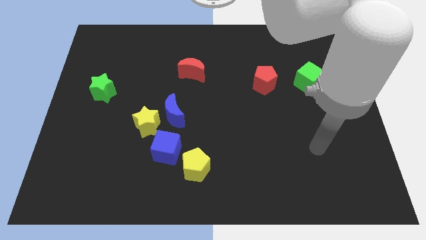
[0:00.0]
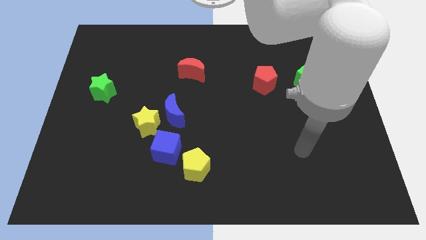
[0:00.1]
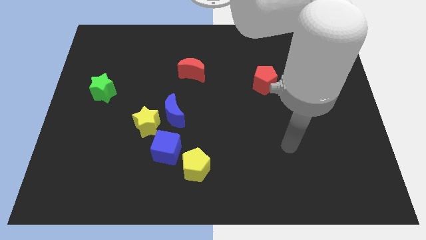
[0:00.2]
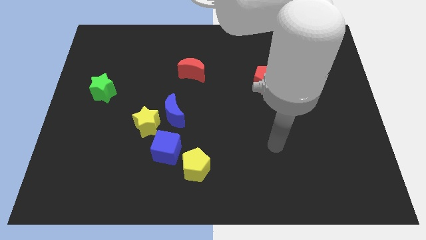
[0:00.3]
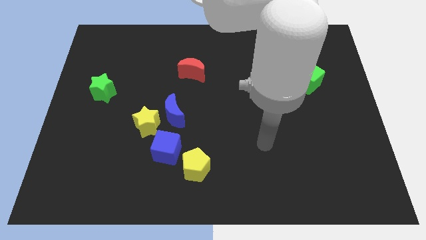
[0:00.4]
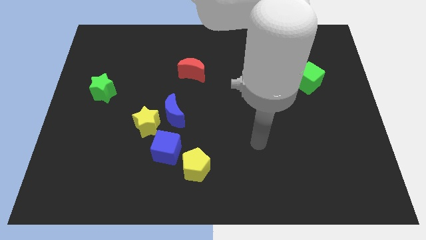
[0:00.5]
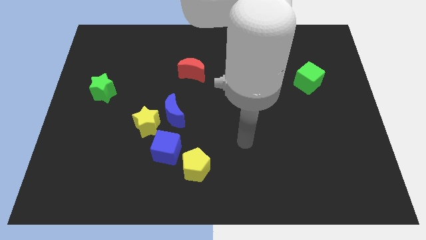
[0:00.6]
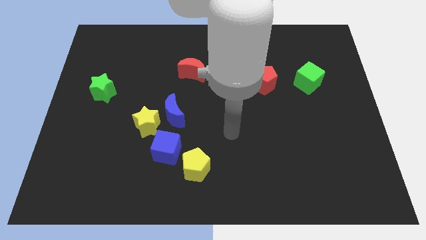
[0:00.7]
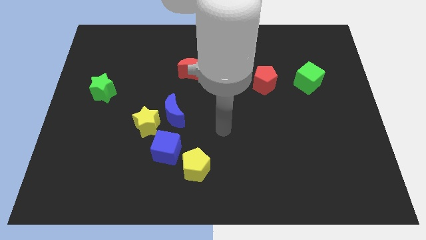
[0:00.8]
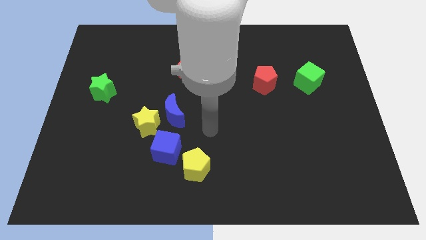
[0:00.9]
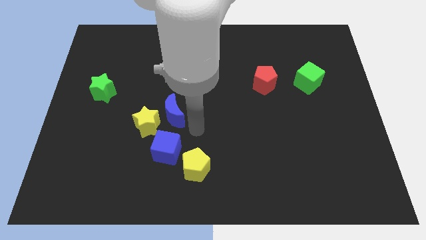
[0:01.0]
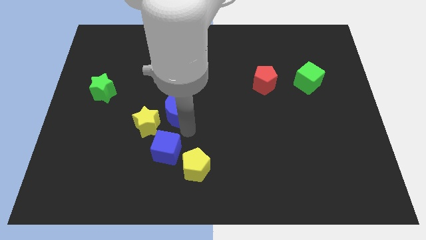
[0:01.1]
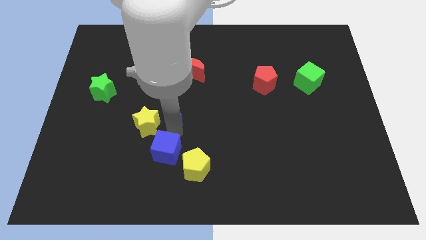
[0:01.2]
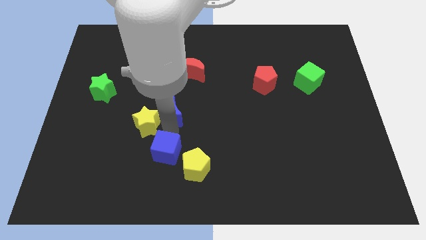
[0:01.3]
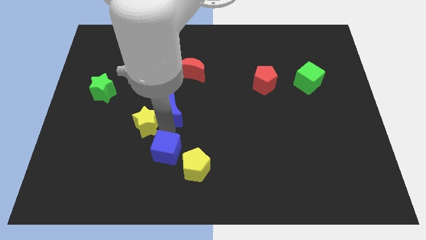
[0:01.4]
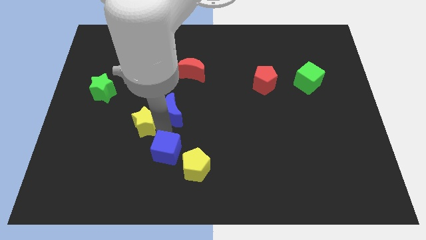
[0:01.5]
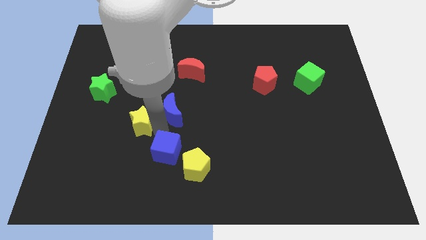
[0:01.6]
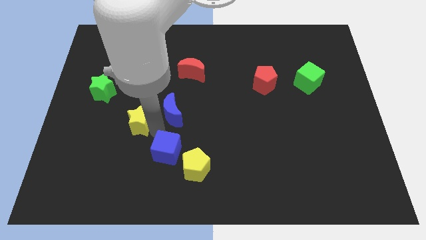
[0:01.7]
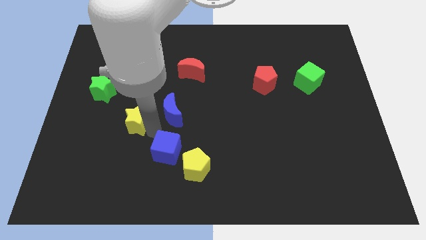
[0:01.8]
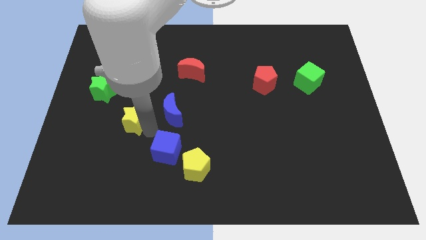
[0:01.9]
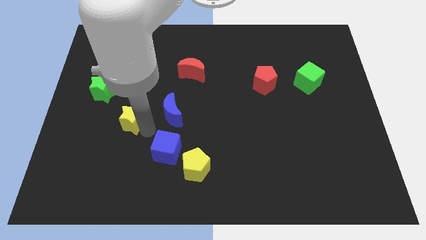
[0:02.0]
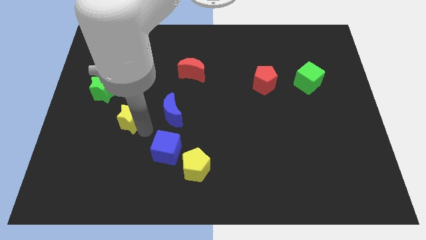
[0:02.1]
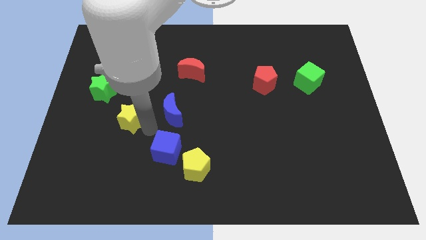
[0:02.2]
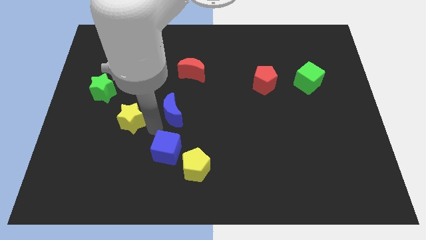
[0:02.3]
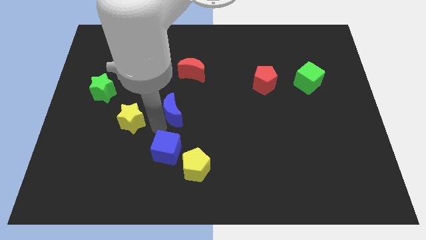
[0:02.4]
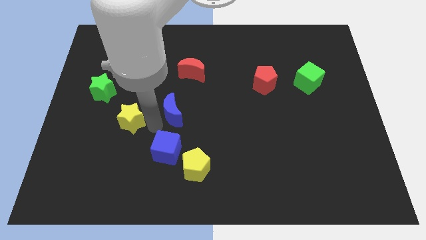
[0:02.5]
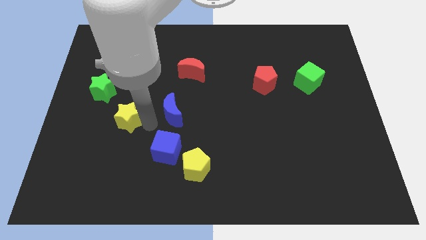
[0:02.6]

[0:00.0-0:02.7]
move the yellow star away from the blue moon and blue cube

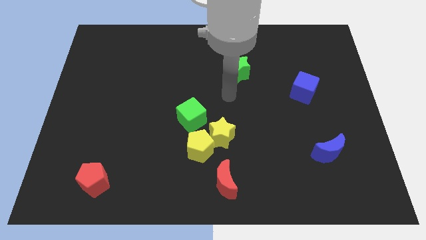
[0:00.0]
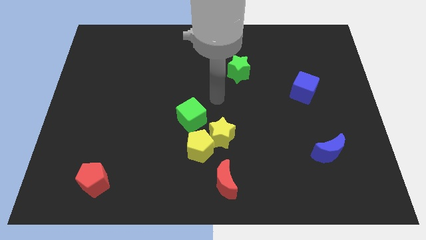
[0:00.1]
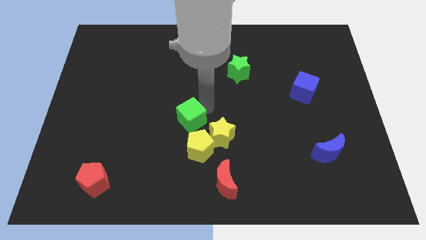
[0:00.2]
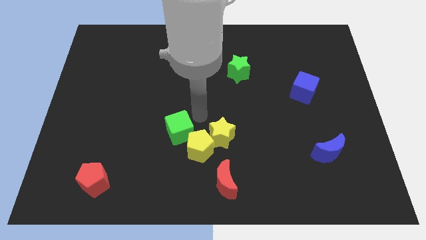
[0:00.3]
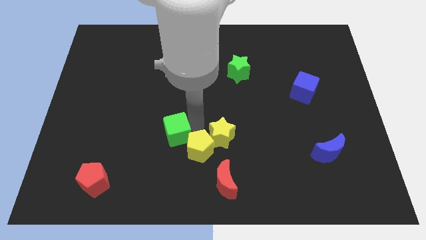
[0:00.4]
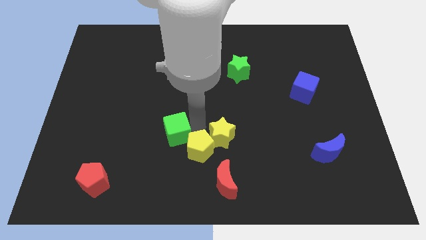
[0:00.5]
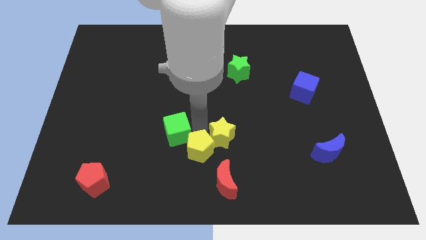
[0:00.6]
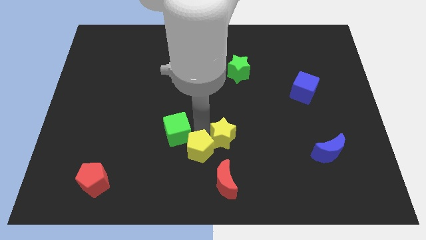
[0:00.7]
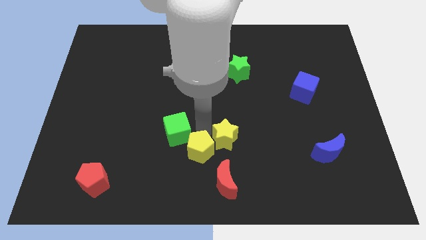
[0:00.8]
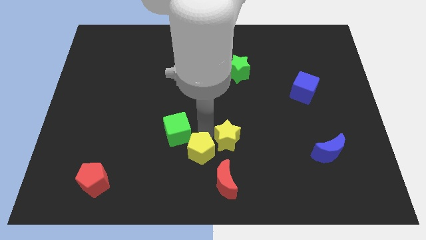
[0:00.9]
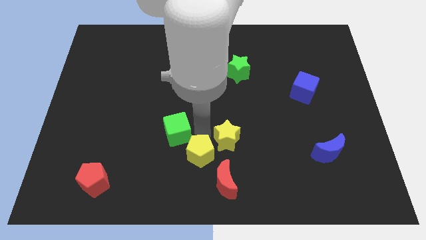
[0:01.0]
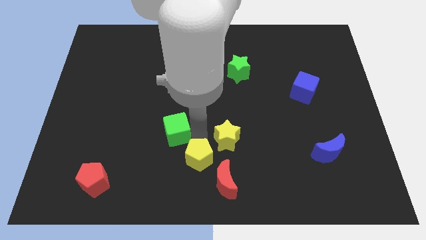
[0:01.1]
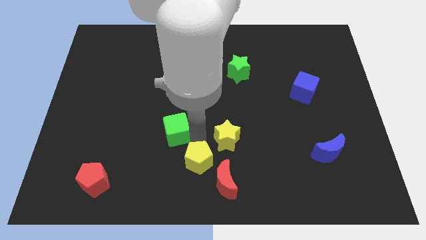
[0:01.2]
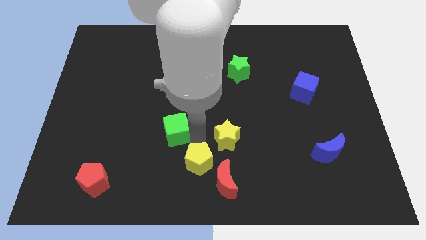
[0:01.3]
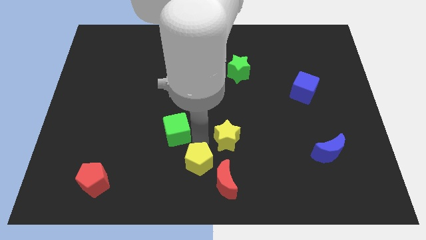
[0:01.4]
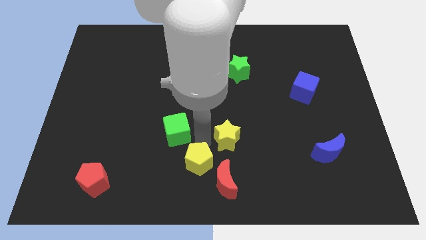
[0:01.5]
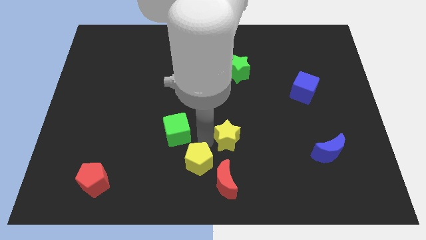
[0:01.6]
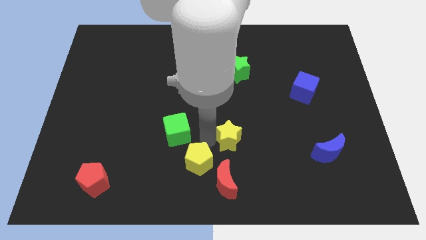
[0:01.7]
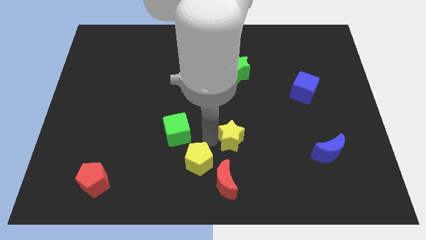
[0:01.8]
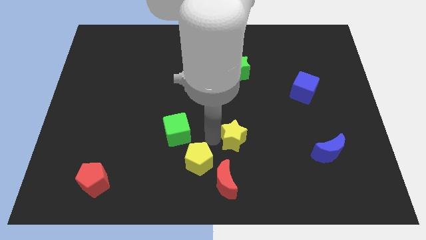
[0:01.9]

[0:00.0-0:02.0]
pull the yellow star apart from the yellow pentagon and green cube

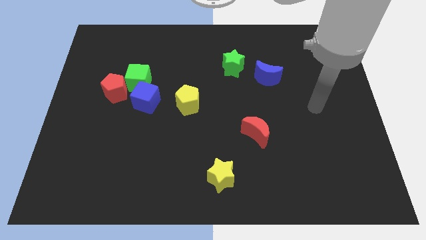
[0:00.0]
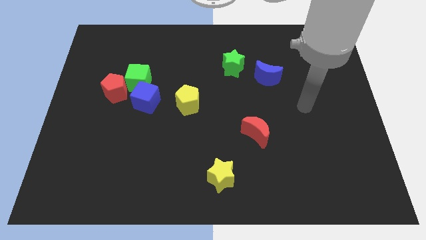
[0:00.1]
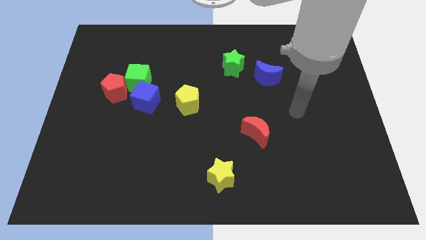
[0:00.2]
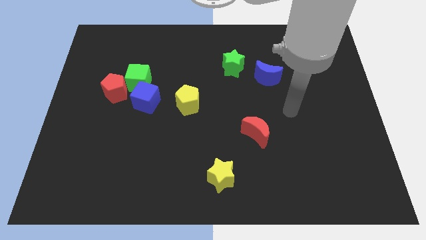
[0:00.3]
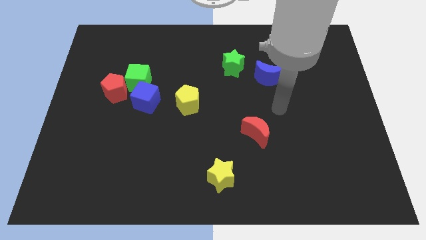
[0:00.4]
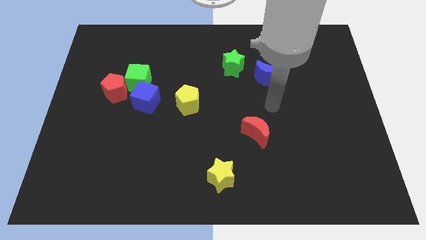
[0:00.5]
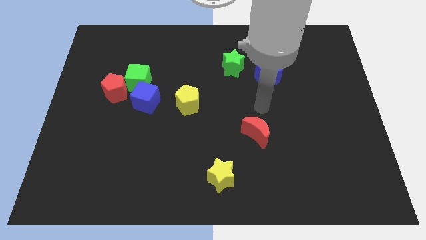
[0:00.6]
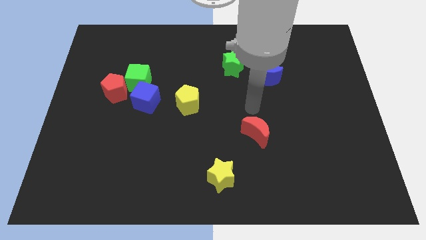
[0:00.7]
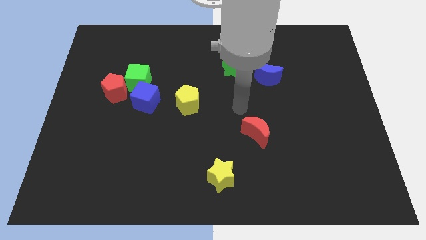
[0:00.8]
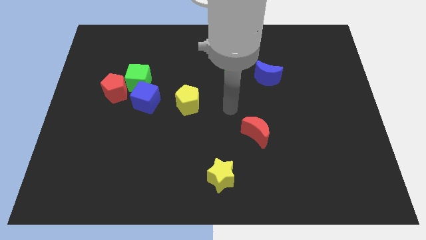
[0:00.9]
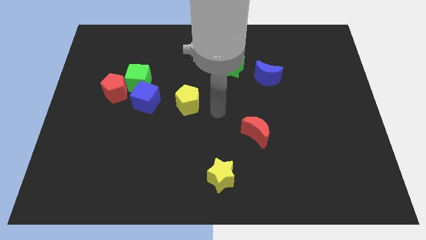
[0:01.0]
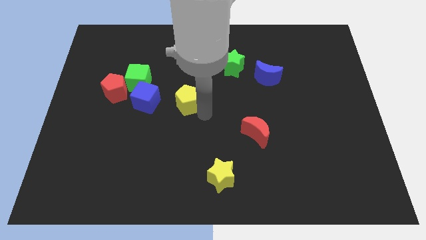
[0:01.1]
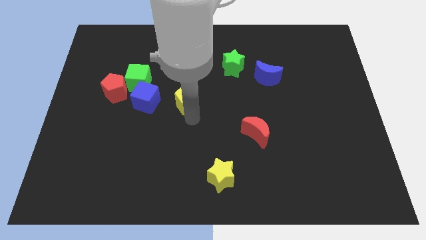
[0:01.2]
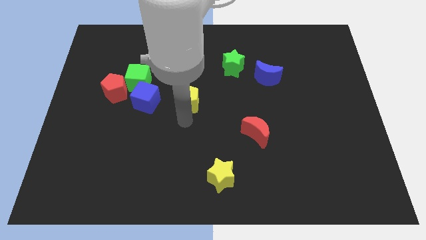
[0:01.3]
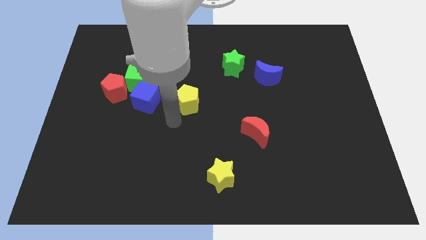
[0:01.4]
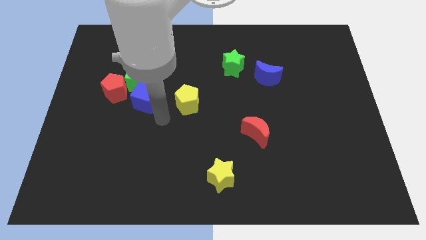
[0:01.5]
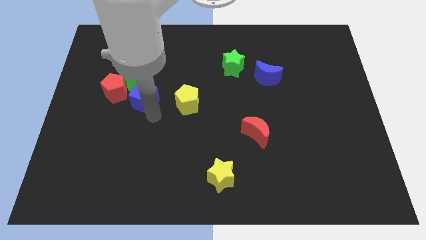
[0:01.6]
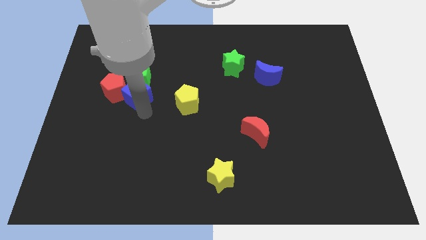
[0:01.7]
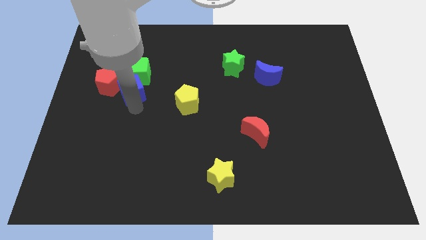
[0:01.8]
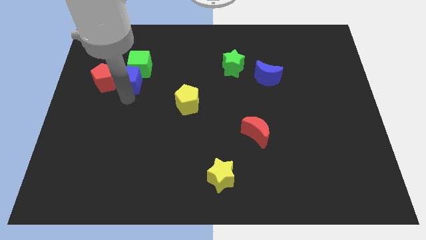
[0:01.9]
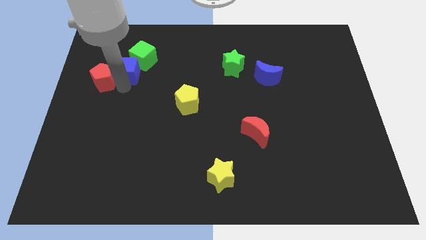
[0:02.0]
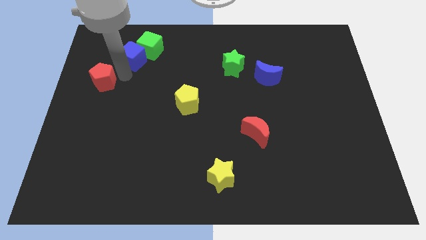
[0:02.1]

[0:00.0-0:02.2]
separate the green cube from the red pentagon and blue cube

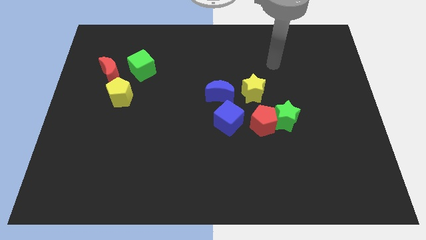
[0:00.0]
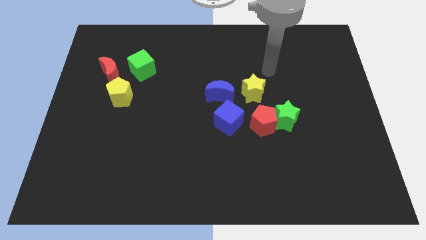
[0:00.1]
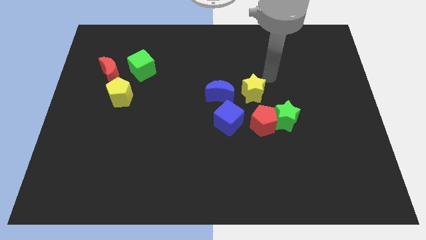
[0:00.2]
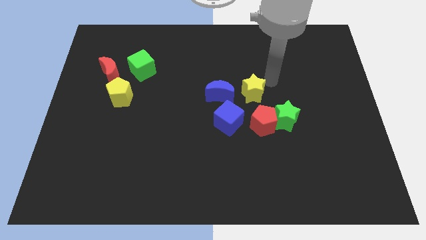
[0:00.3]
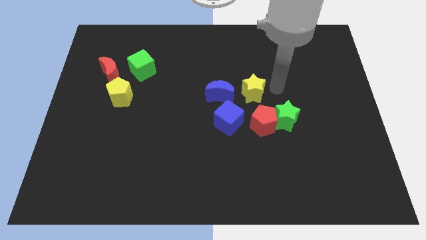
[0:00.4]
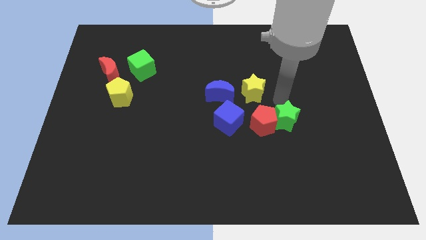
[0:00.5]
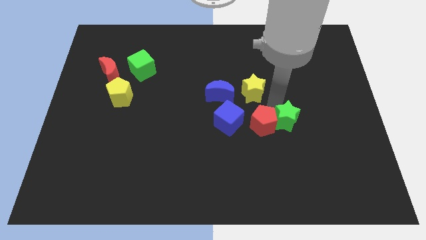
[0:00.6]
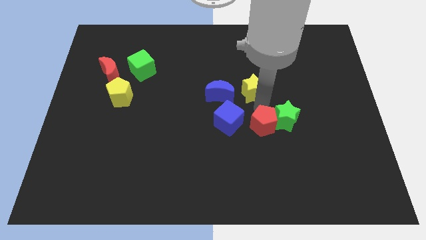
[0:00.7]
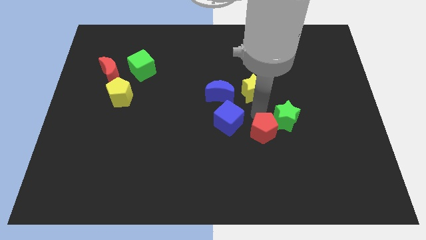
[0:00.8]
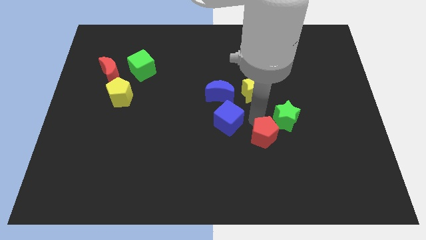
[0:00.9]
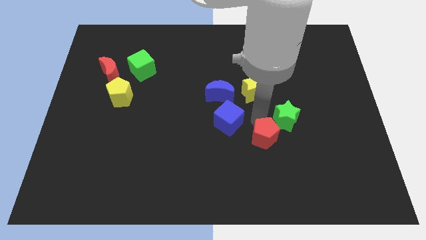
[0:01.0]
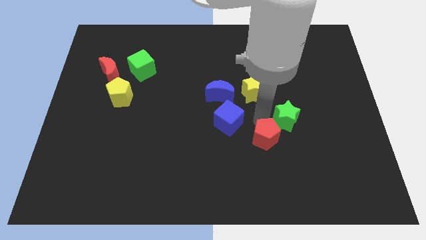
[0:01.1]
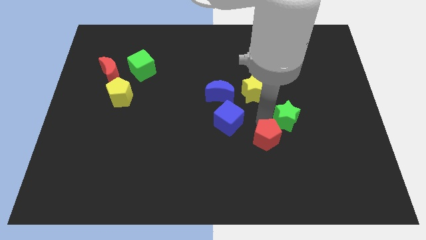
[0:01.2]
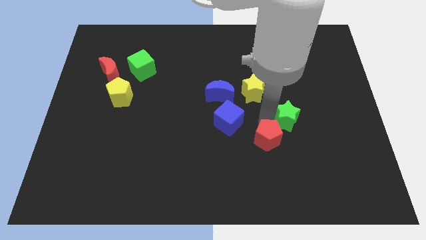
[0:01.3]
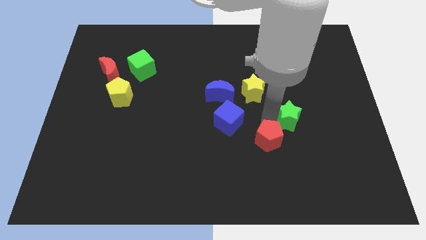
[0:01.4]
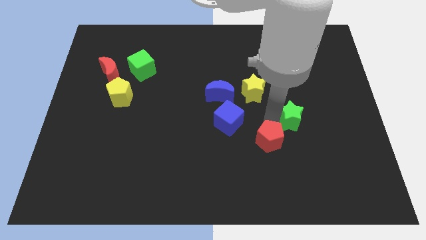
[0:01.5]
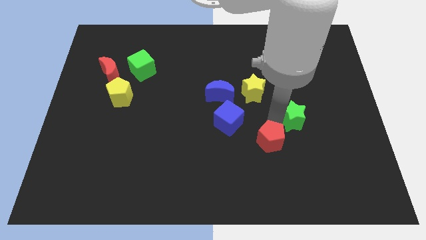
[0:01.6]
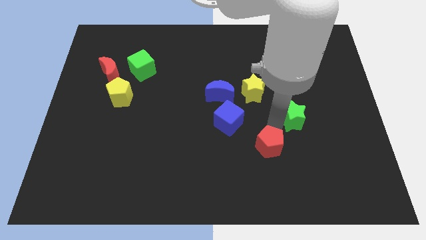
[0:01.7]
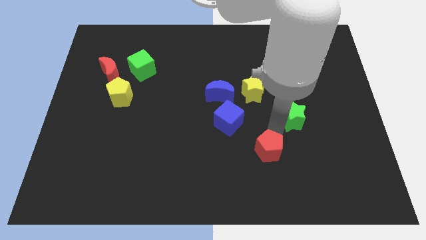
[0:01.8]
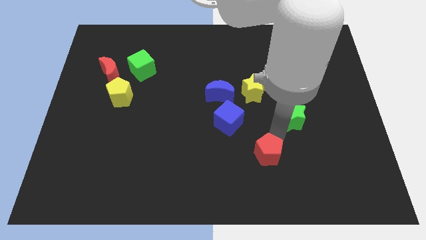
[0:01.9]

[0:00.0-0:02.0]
move the green star away from the red pentagon

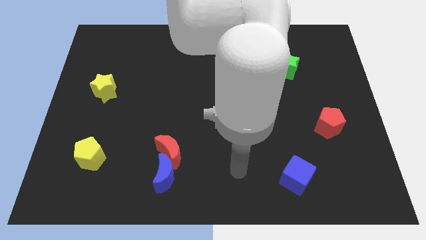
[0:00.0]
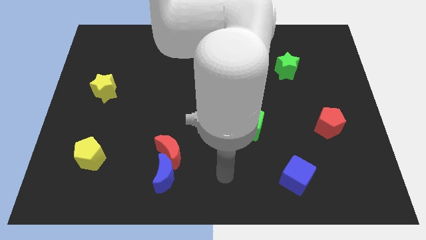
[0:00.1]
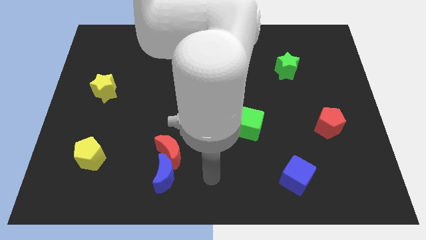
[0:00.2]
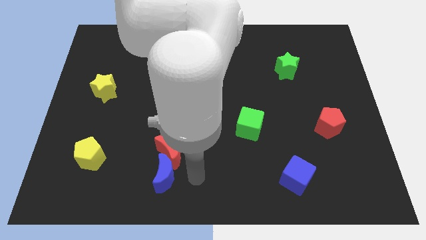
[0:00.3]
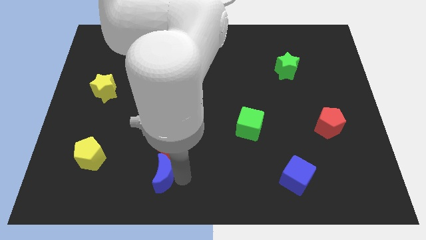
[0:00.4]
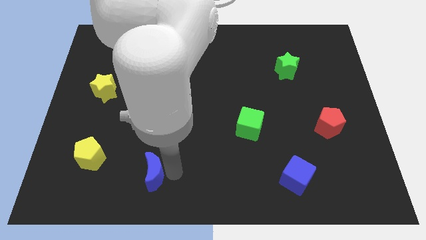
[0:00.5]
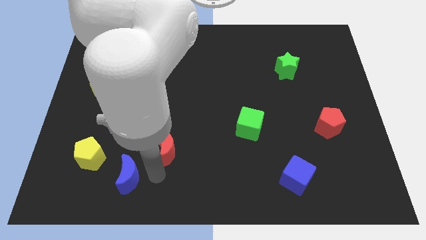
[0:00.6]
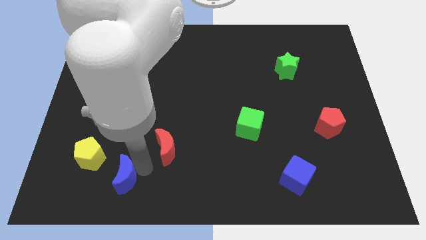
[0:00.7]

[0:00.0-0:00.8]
move the red moon away from the blue moon
